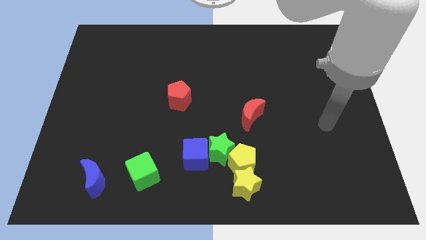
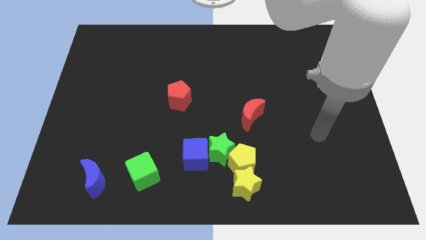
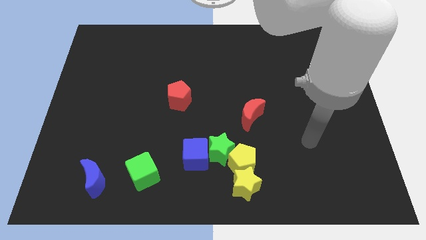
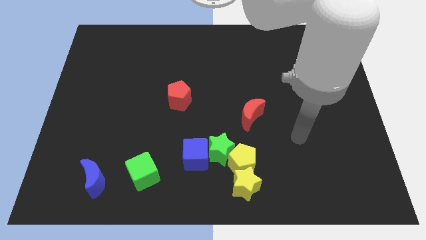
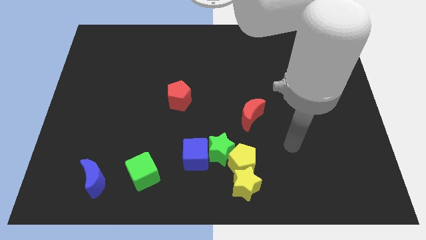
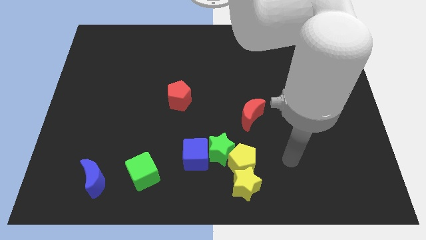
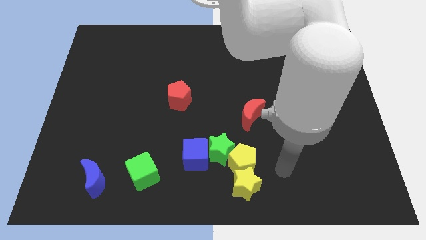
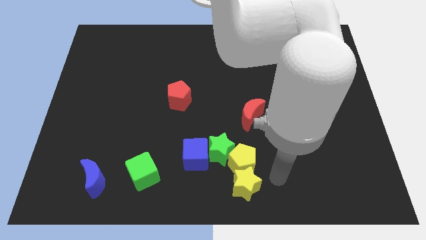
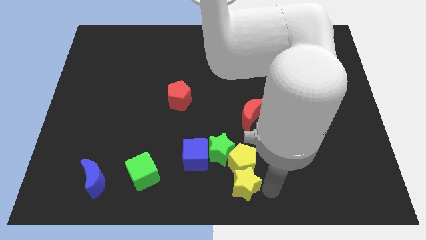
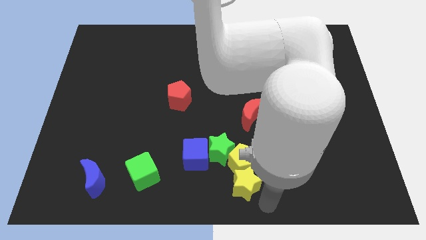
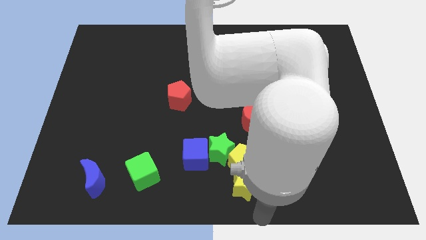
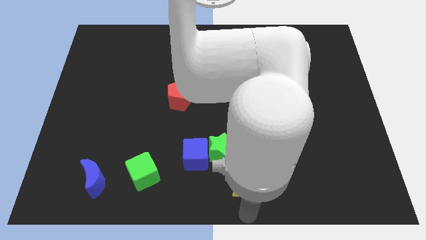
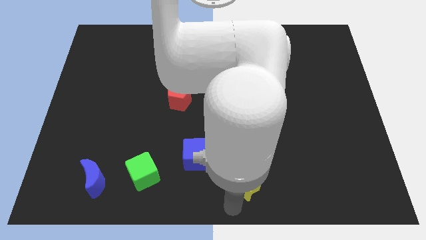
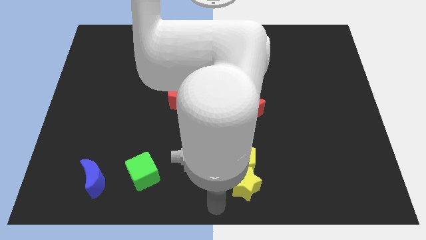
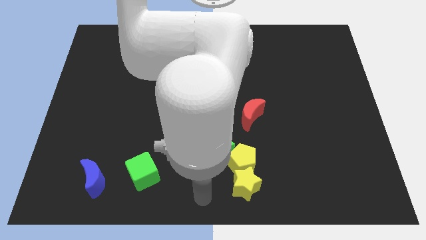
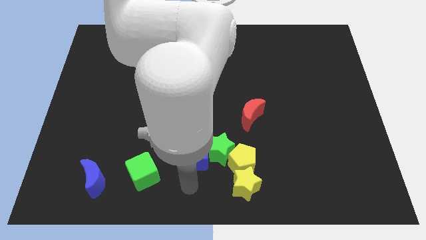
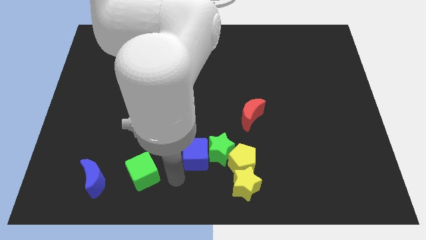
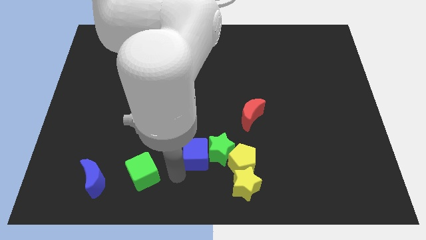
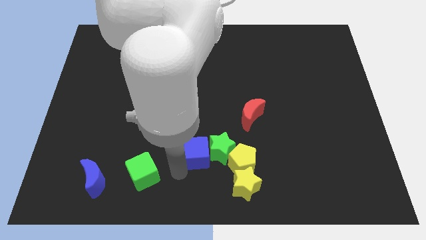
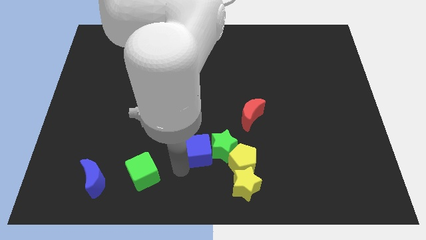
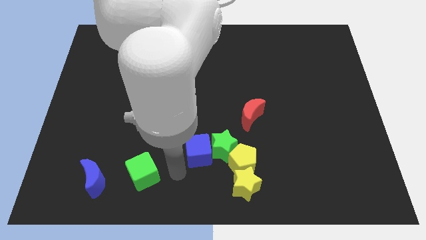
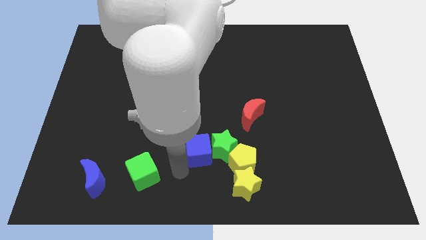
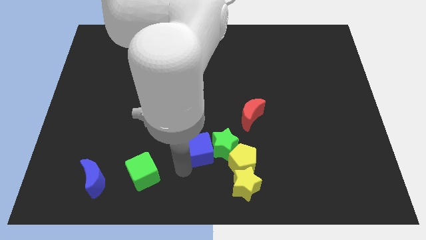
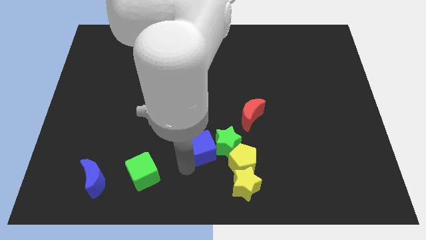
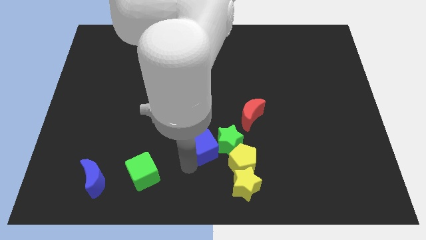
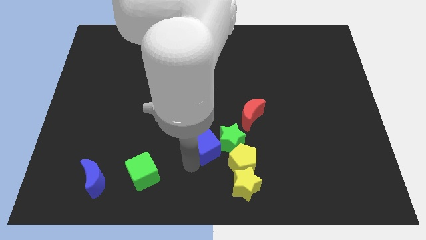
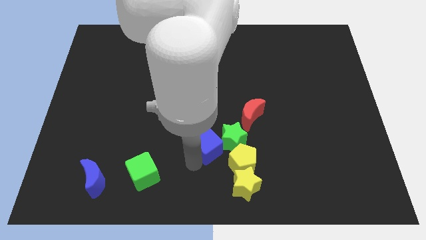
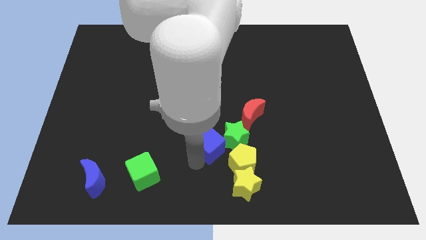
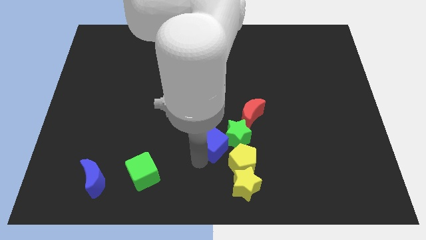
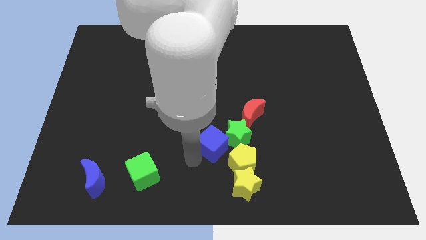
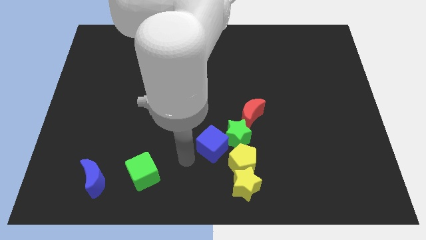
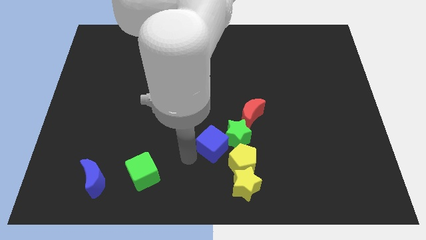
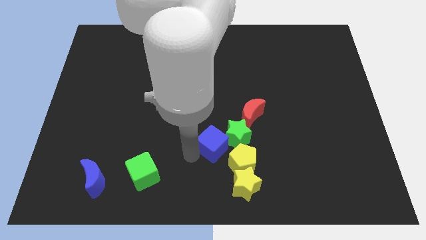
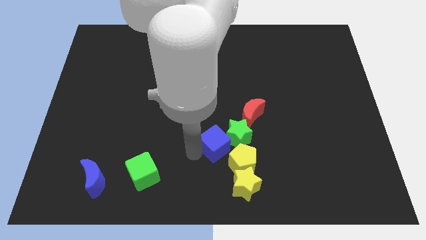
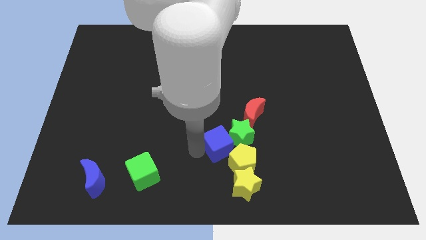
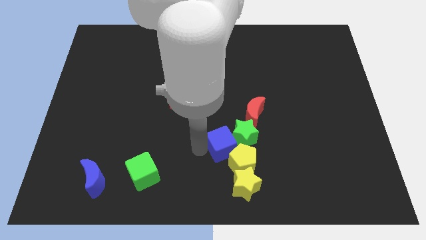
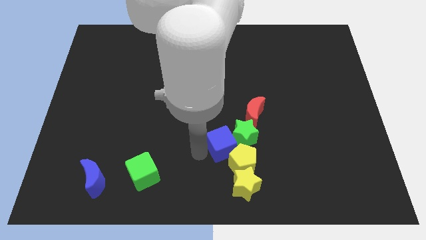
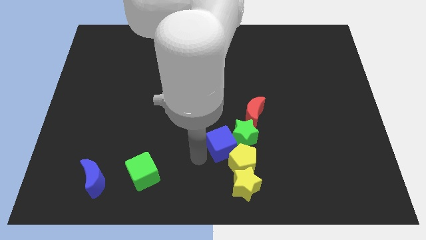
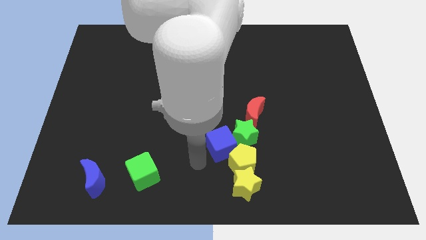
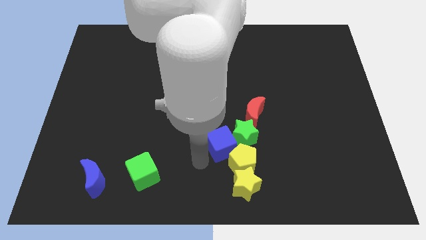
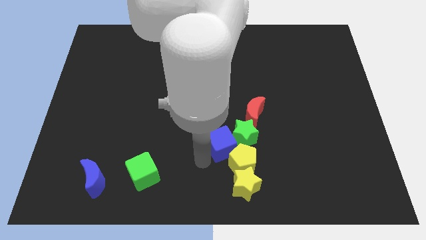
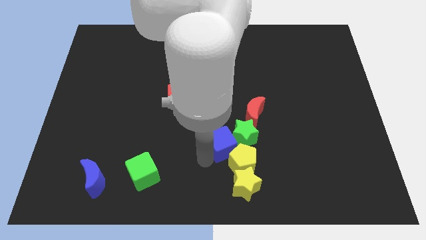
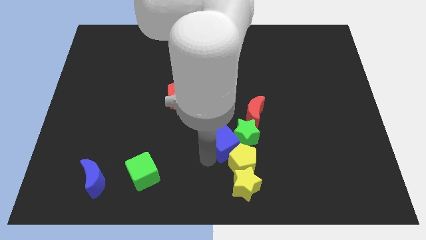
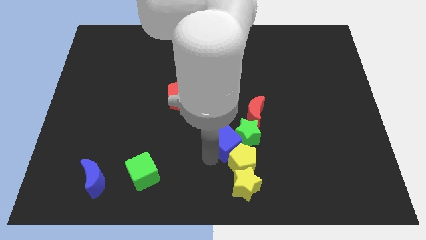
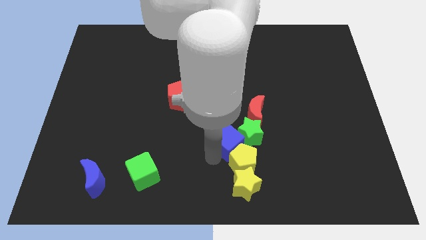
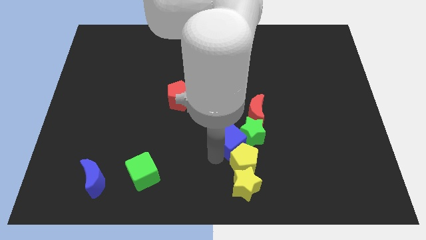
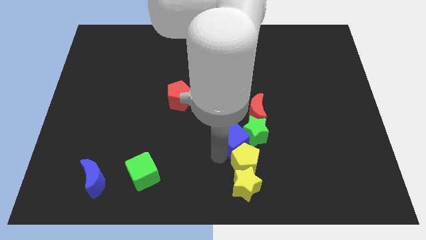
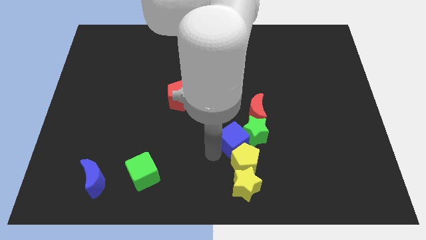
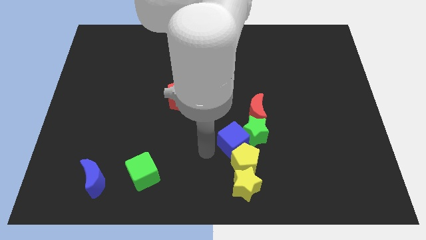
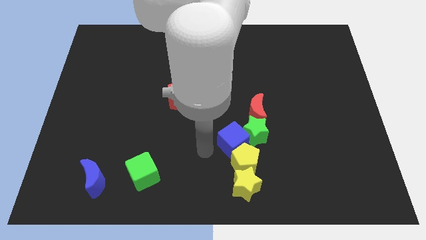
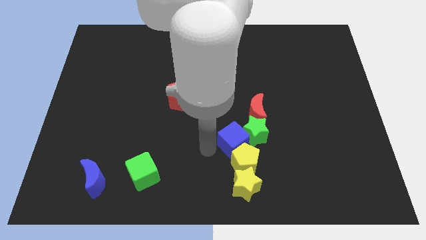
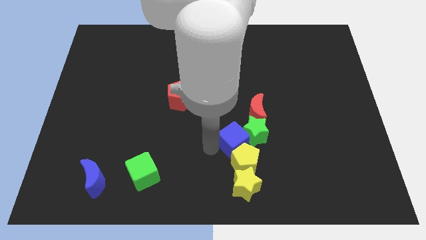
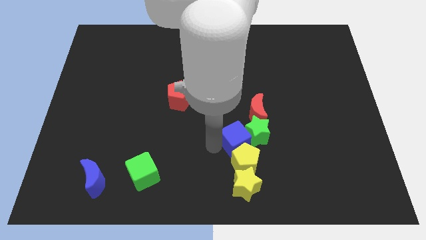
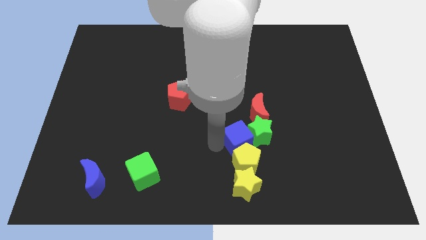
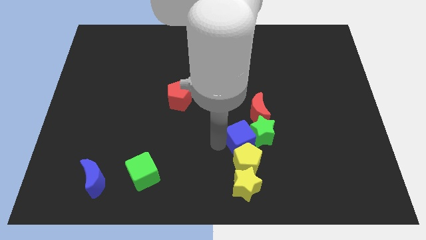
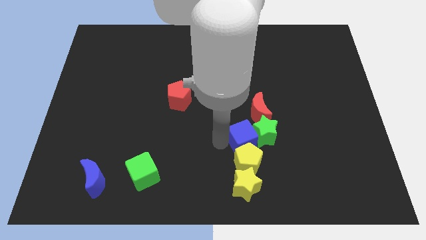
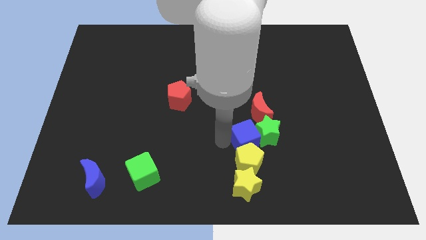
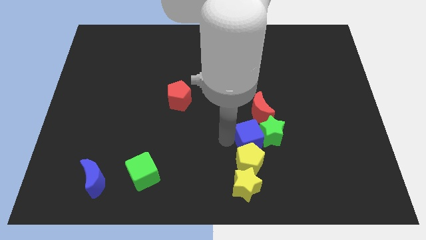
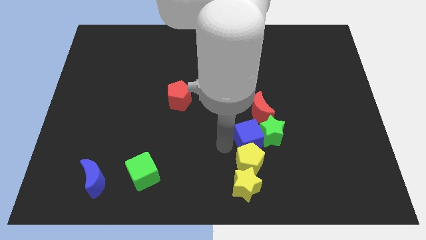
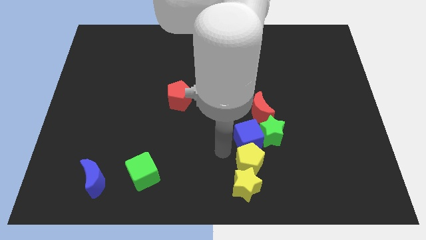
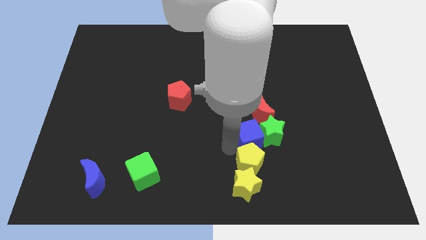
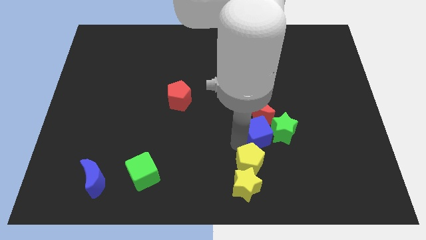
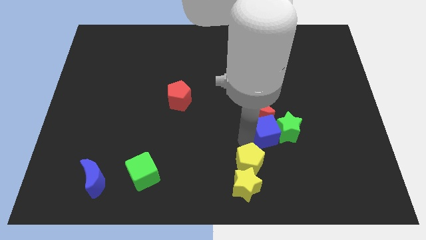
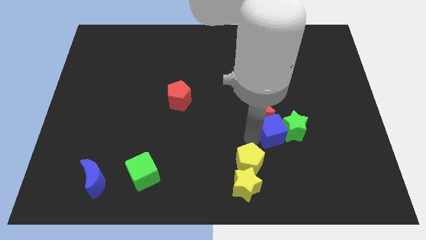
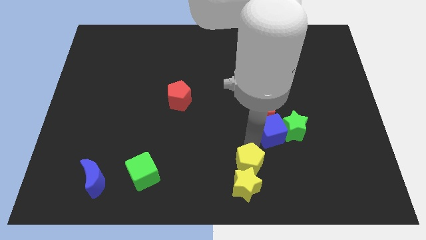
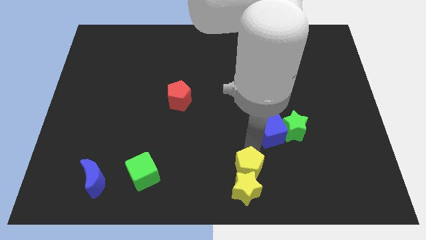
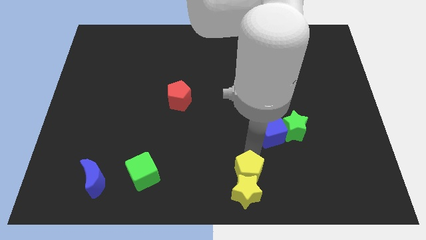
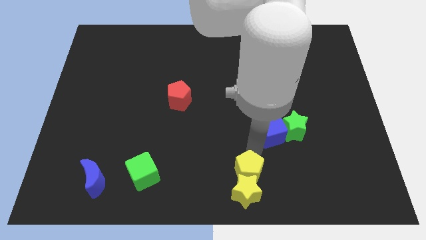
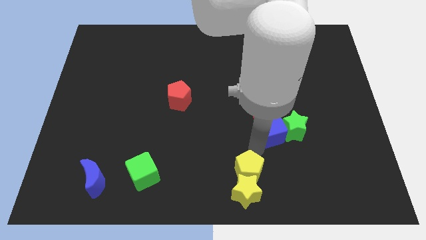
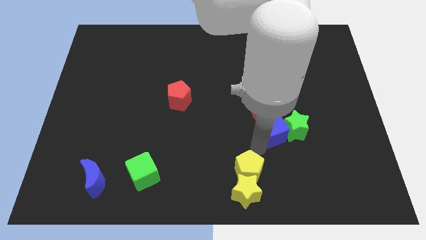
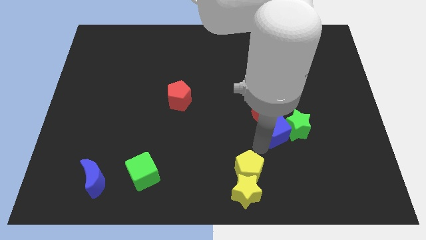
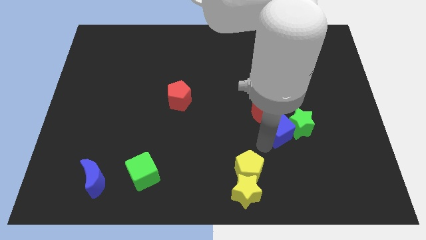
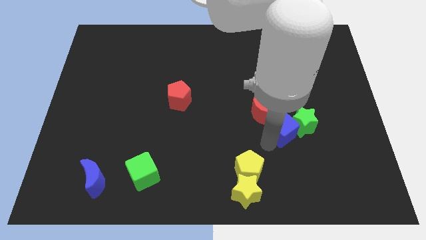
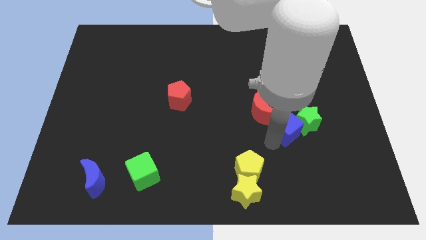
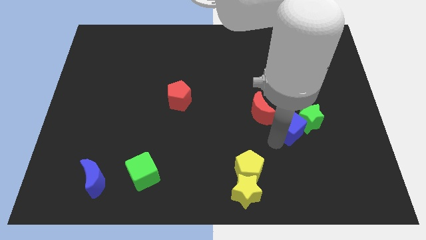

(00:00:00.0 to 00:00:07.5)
put the blue cube right of the red moon
